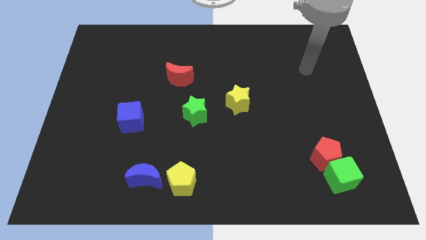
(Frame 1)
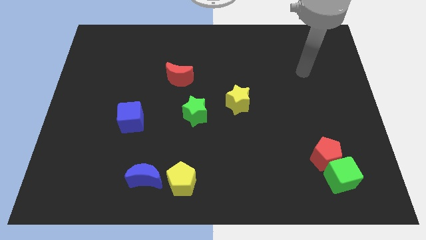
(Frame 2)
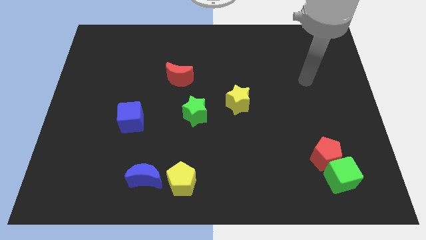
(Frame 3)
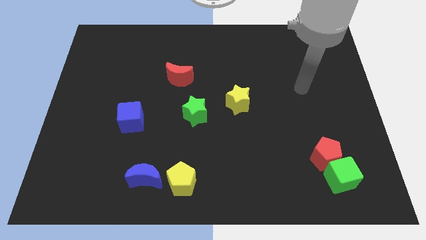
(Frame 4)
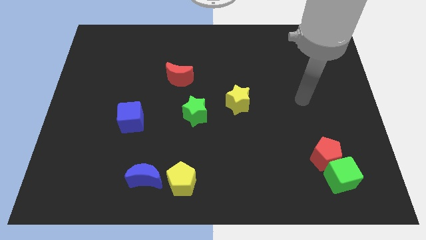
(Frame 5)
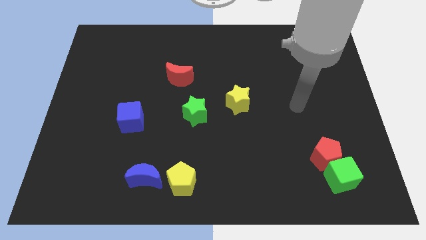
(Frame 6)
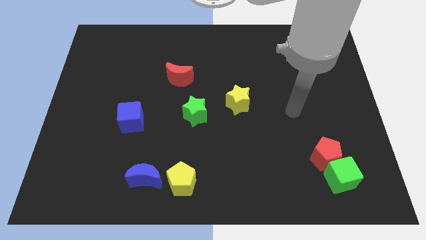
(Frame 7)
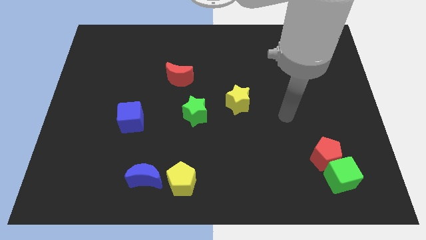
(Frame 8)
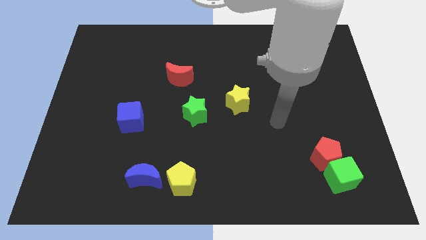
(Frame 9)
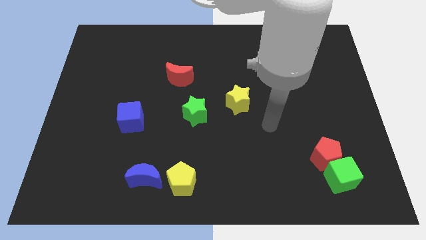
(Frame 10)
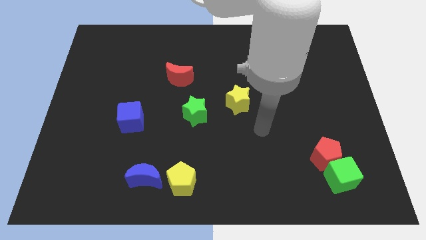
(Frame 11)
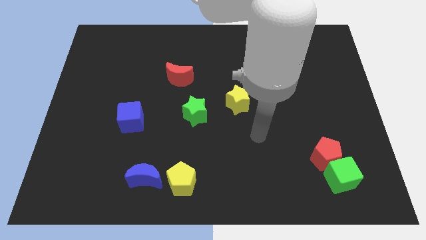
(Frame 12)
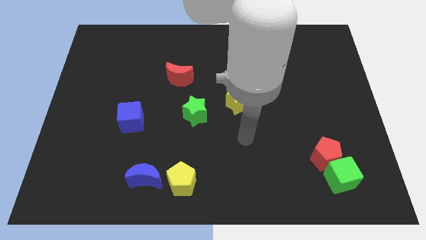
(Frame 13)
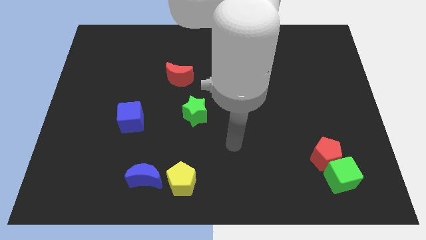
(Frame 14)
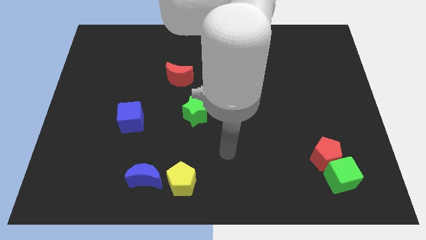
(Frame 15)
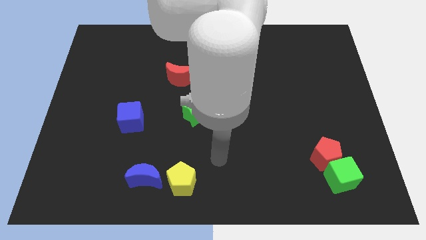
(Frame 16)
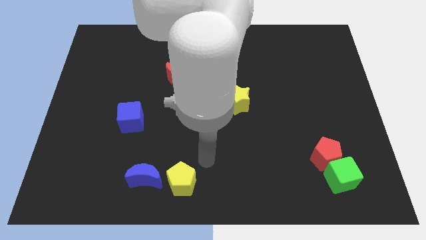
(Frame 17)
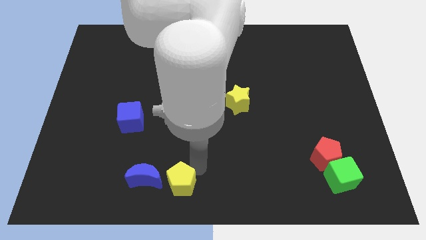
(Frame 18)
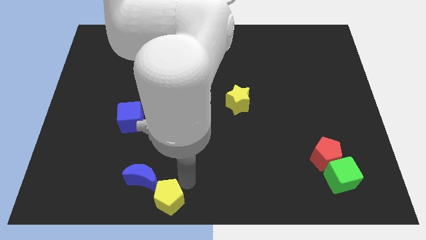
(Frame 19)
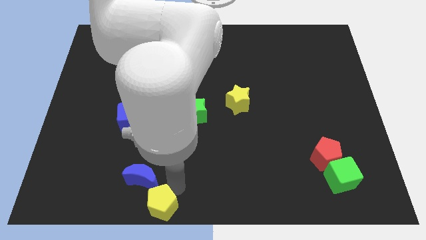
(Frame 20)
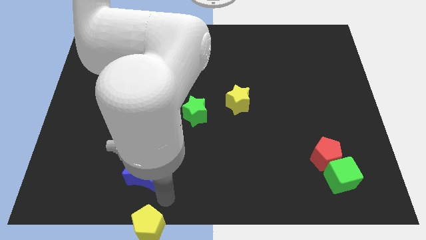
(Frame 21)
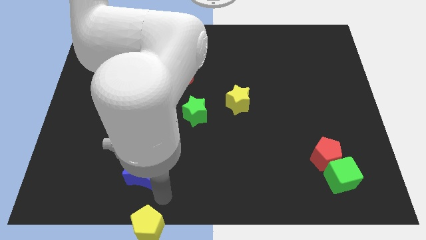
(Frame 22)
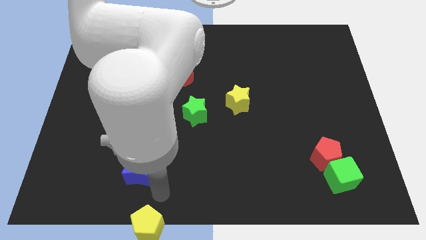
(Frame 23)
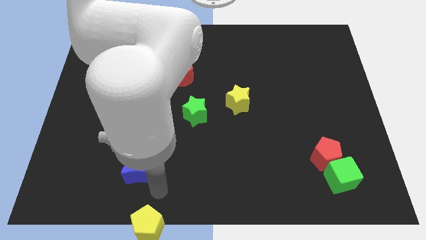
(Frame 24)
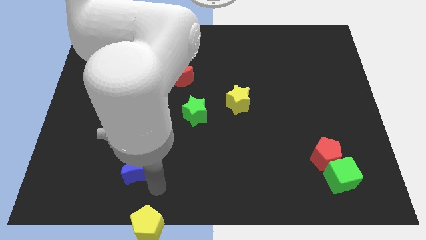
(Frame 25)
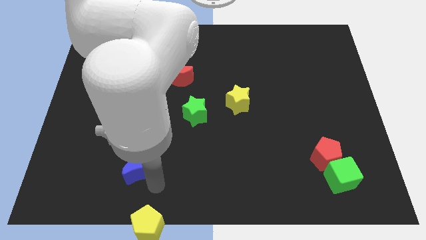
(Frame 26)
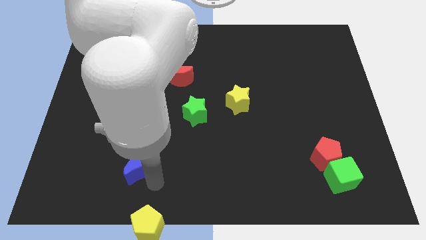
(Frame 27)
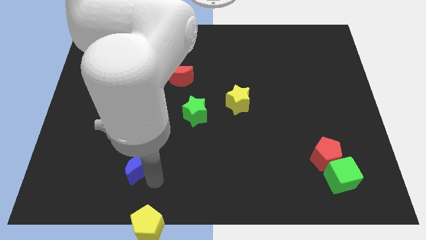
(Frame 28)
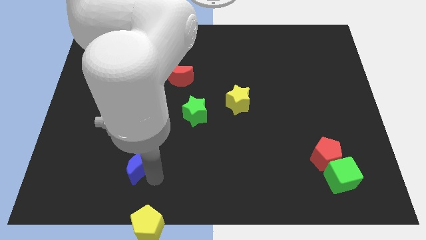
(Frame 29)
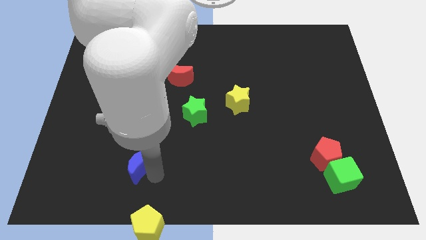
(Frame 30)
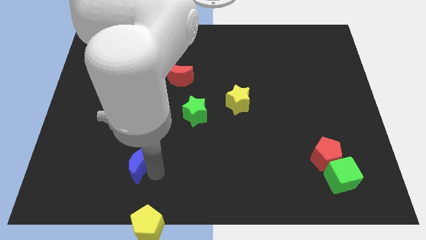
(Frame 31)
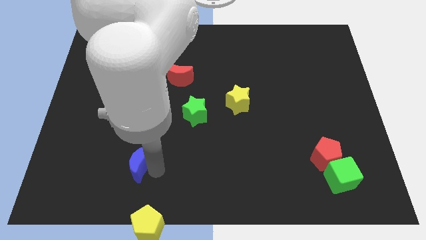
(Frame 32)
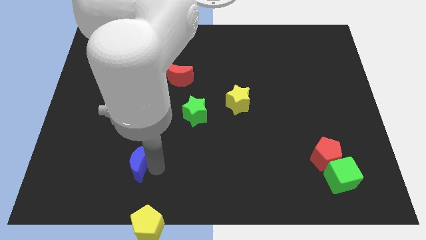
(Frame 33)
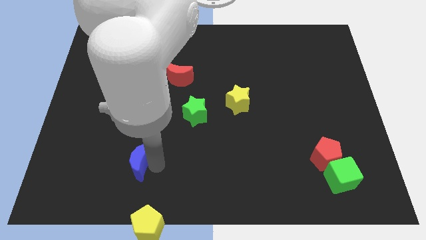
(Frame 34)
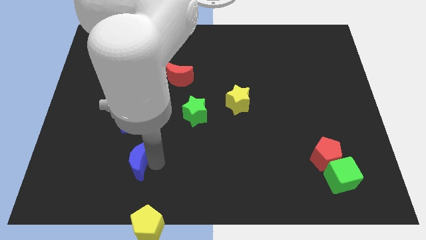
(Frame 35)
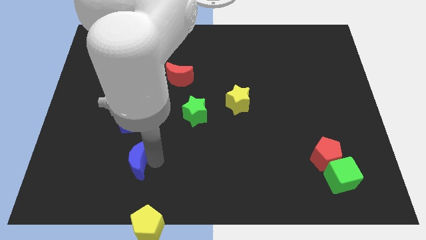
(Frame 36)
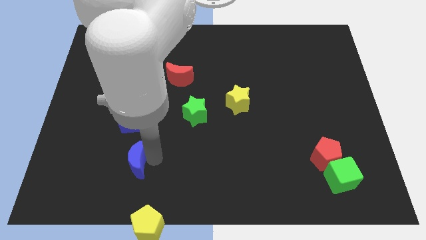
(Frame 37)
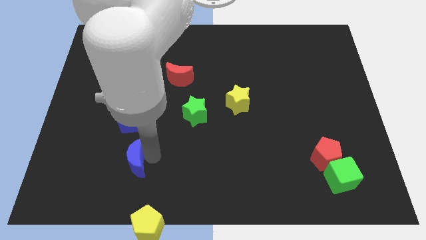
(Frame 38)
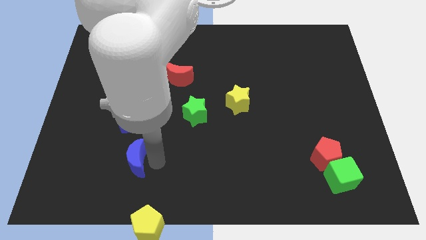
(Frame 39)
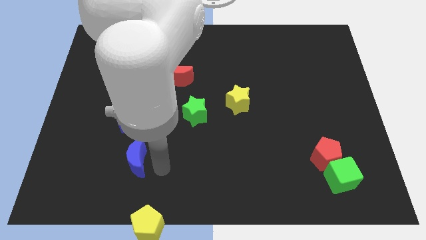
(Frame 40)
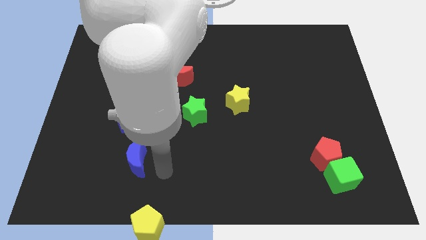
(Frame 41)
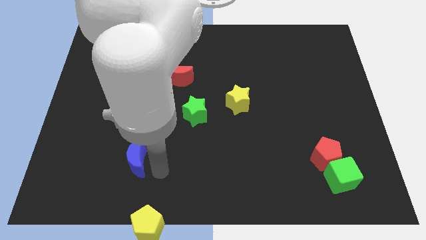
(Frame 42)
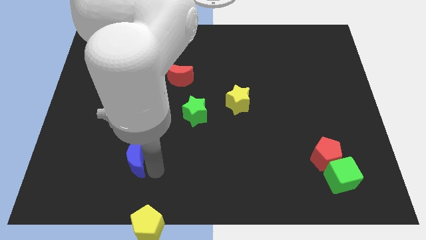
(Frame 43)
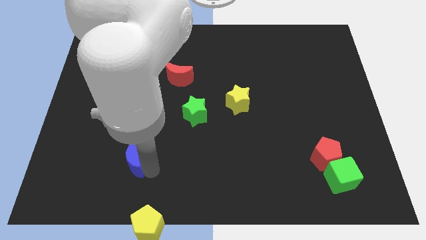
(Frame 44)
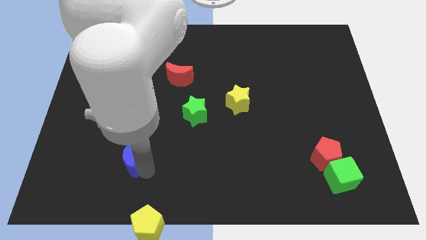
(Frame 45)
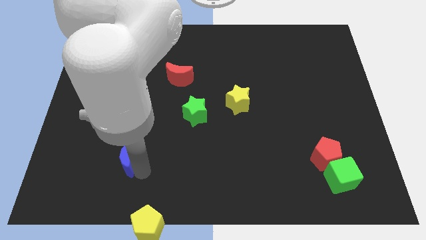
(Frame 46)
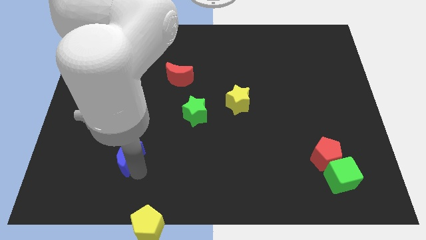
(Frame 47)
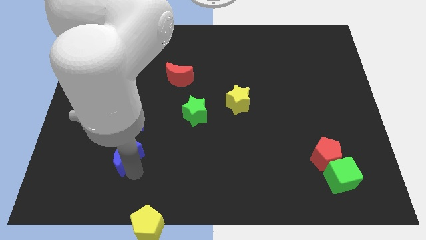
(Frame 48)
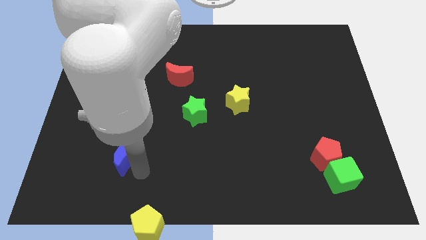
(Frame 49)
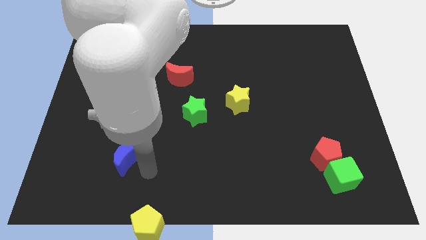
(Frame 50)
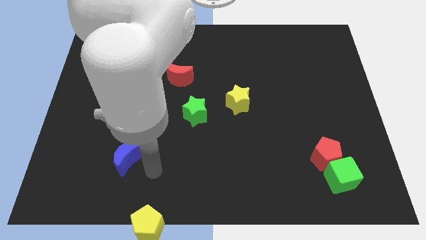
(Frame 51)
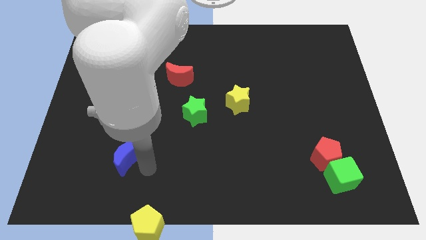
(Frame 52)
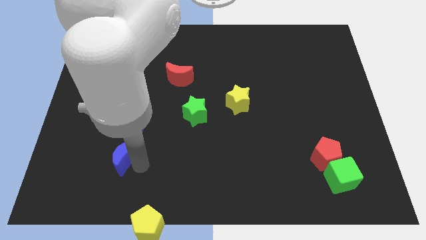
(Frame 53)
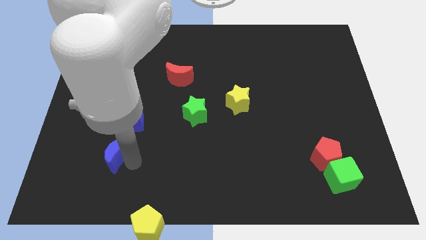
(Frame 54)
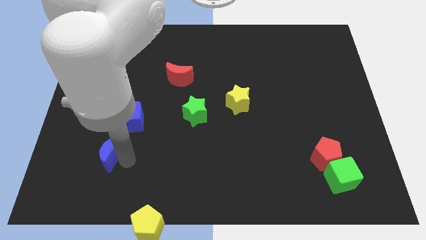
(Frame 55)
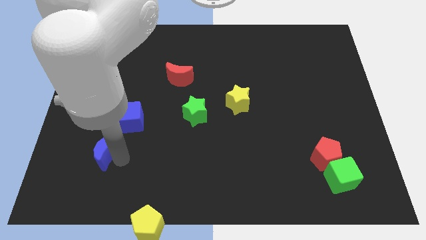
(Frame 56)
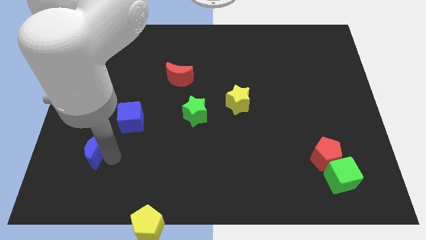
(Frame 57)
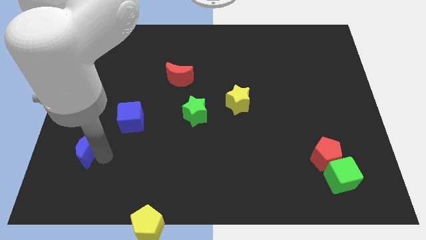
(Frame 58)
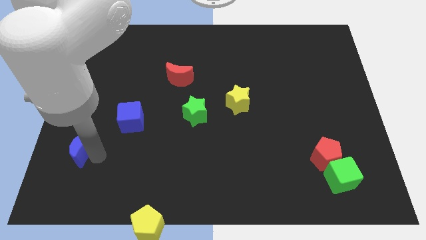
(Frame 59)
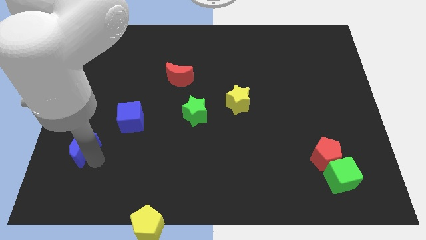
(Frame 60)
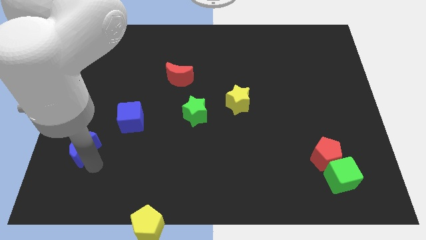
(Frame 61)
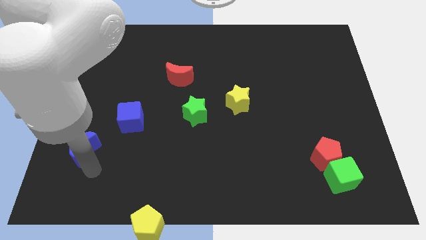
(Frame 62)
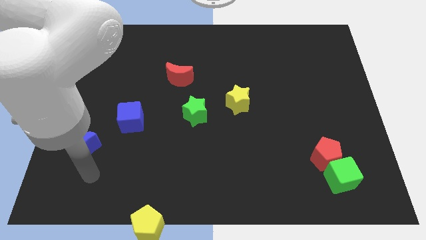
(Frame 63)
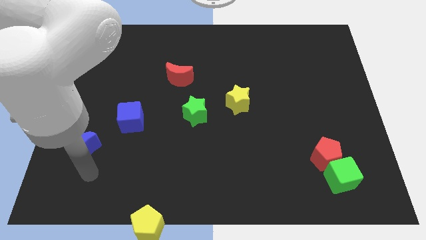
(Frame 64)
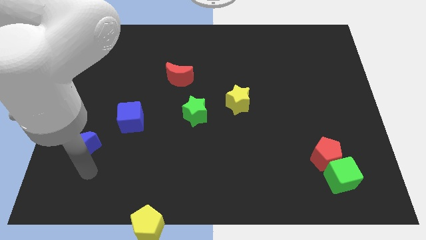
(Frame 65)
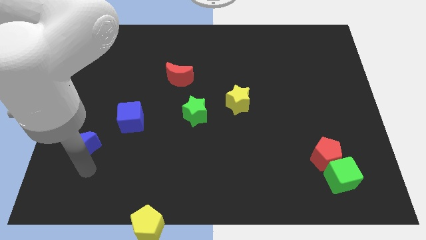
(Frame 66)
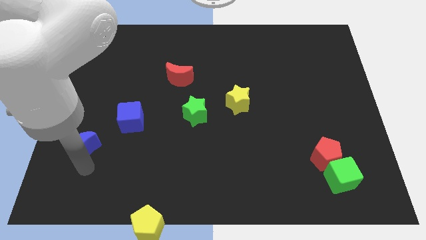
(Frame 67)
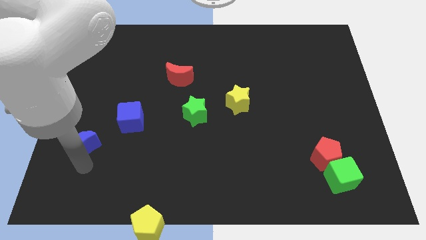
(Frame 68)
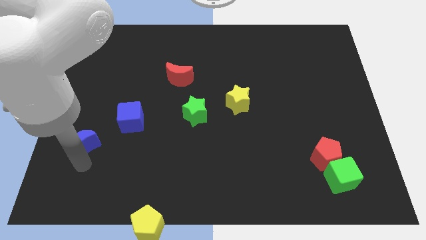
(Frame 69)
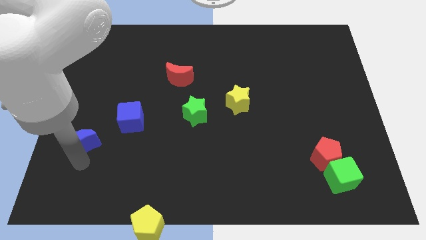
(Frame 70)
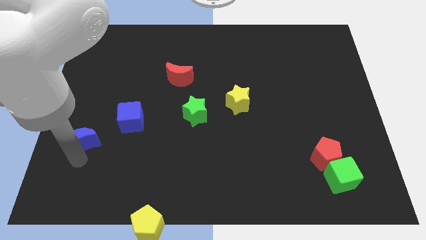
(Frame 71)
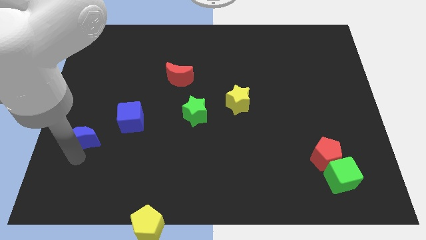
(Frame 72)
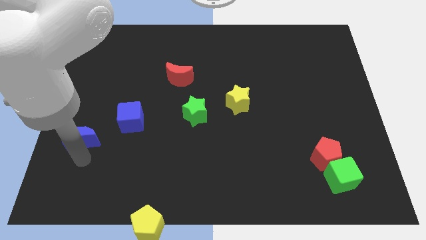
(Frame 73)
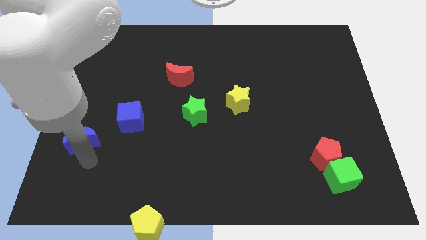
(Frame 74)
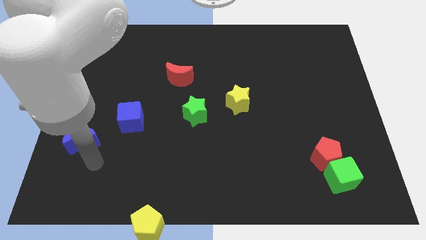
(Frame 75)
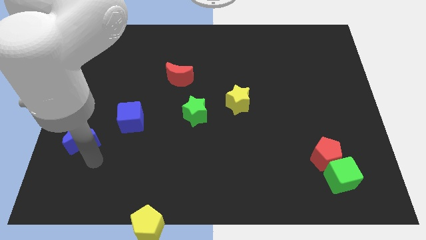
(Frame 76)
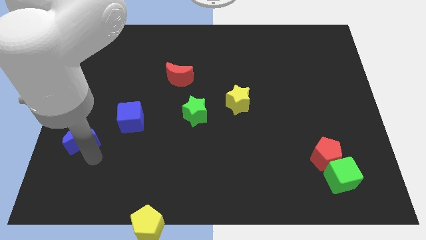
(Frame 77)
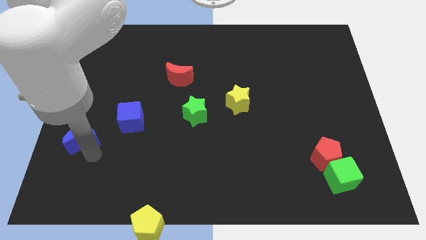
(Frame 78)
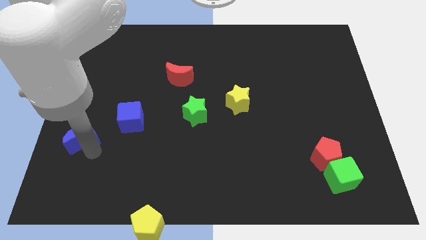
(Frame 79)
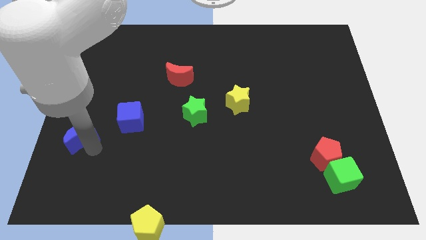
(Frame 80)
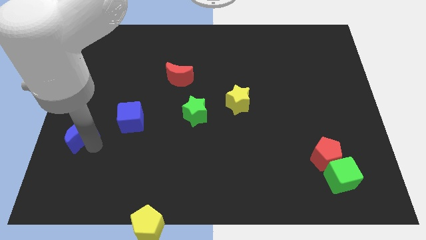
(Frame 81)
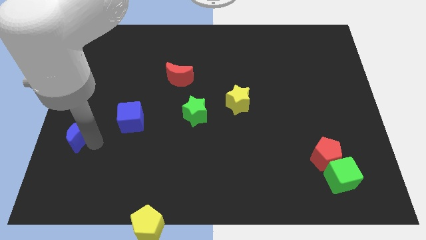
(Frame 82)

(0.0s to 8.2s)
move the blue moon to the left side
